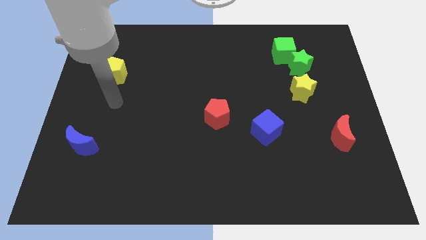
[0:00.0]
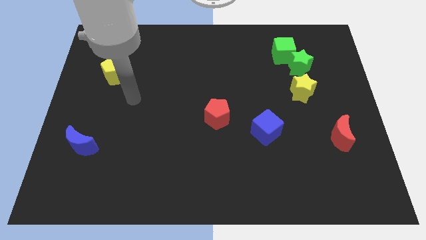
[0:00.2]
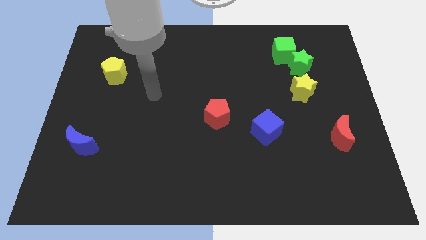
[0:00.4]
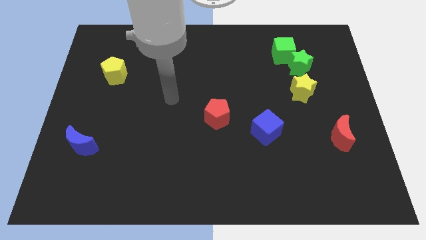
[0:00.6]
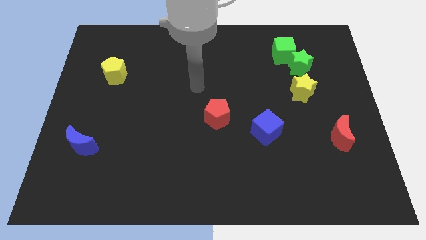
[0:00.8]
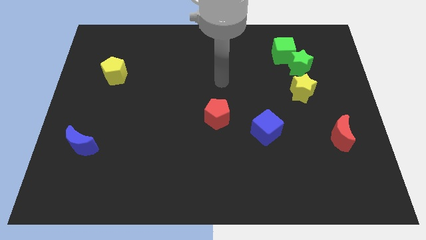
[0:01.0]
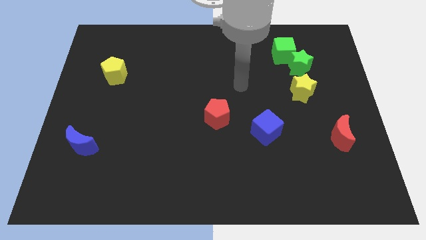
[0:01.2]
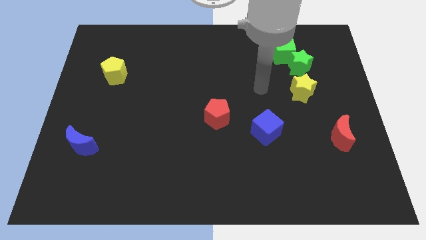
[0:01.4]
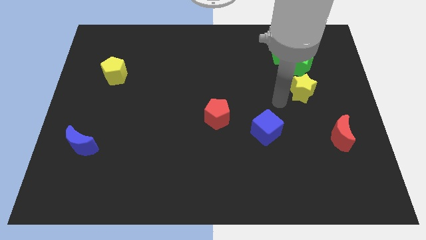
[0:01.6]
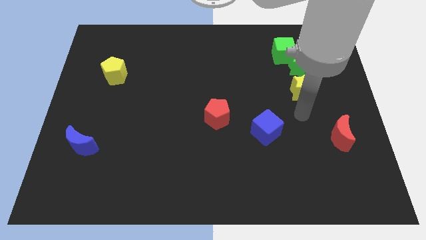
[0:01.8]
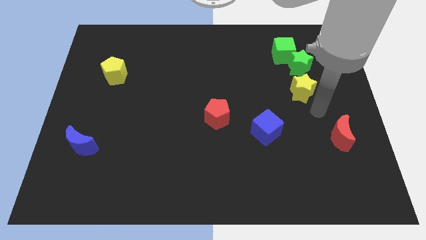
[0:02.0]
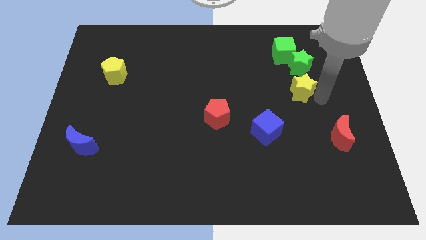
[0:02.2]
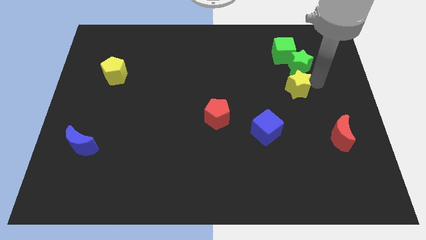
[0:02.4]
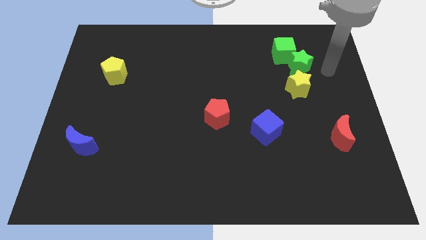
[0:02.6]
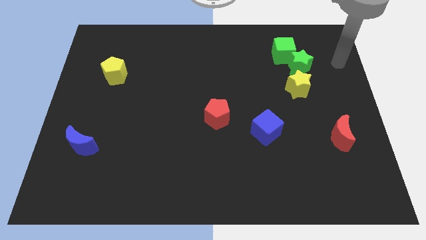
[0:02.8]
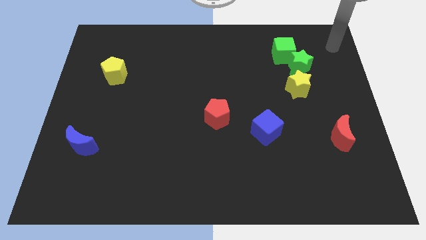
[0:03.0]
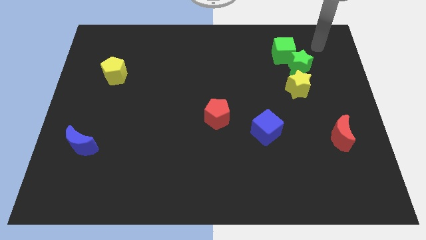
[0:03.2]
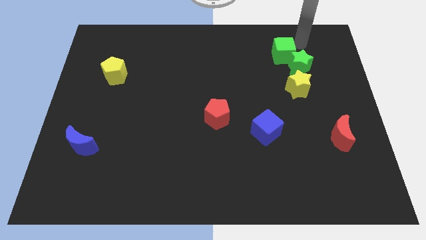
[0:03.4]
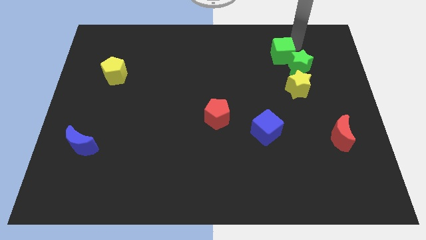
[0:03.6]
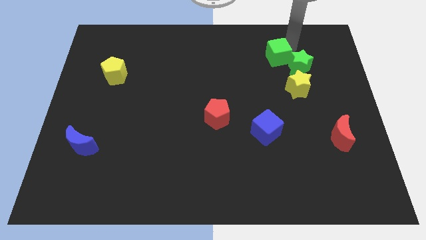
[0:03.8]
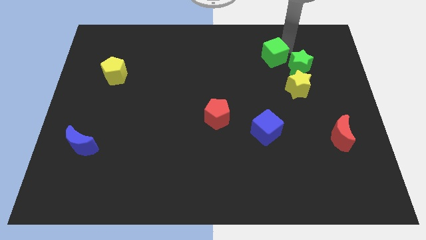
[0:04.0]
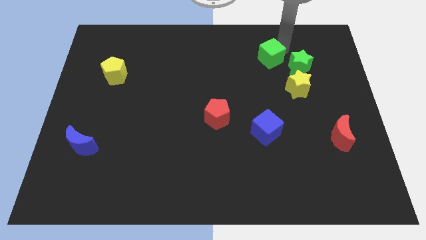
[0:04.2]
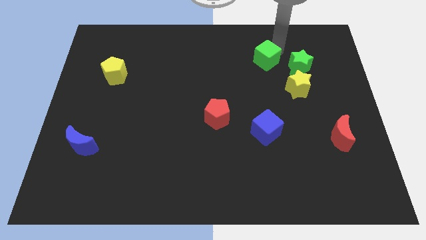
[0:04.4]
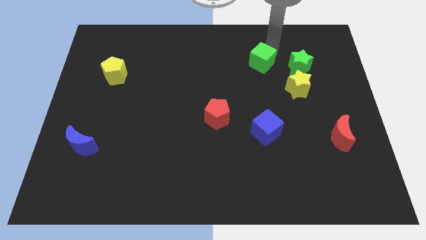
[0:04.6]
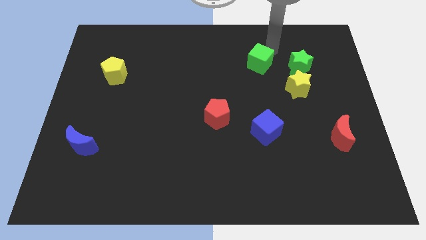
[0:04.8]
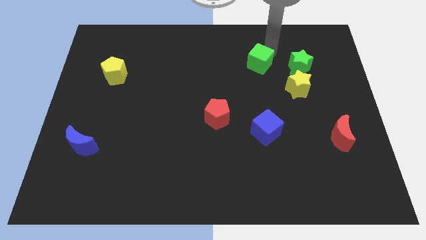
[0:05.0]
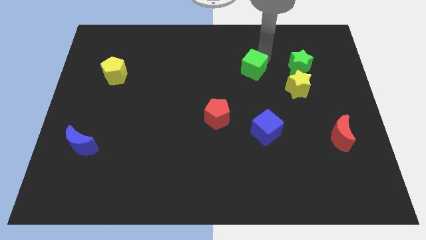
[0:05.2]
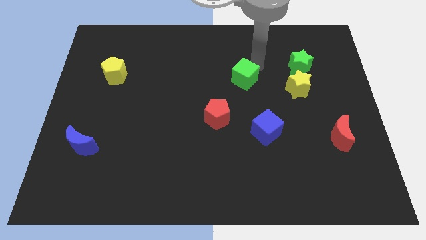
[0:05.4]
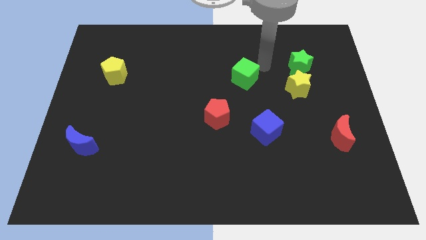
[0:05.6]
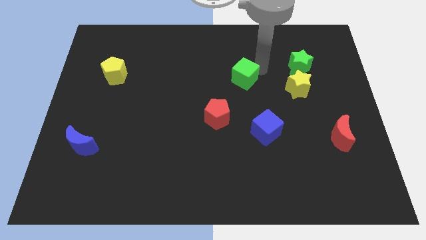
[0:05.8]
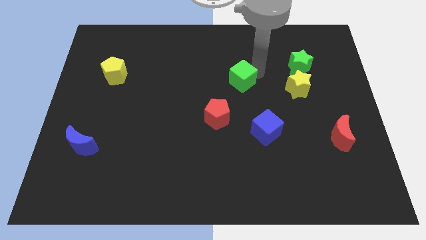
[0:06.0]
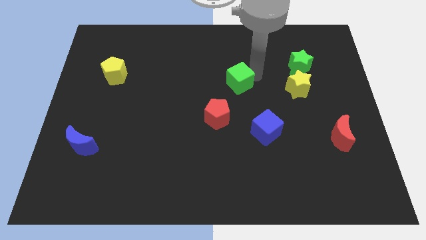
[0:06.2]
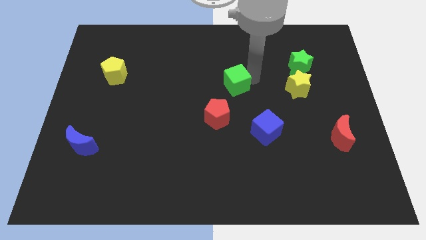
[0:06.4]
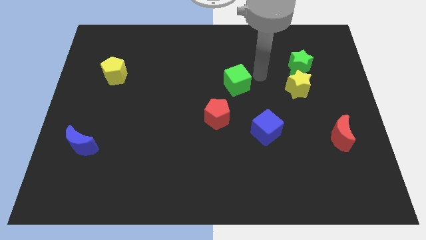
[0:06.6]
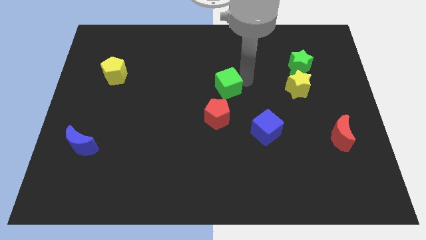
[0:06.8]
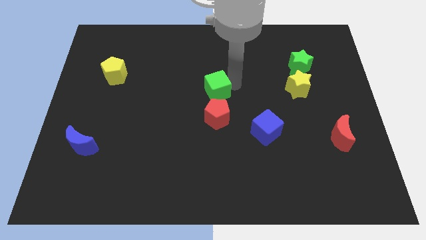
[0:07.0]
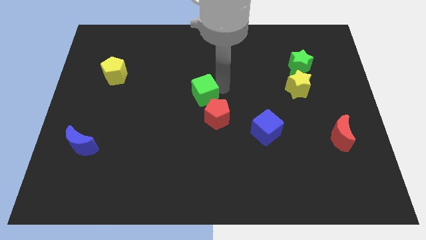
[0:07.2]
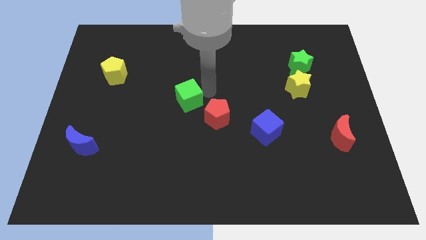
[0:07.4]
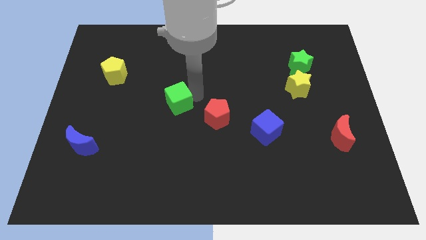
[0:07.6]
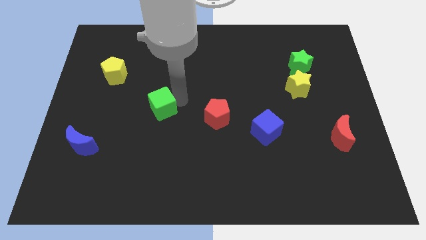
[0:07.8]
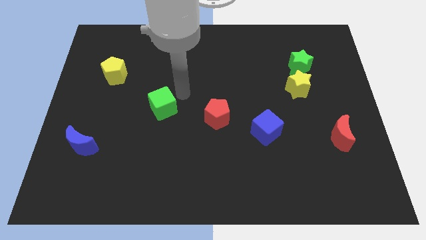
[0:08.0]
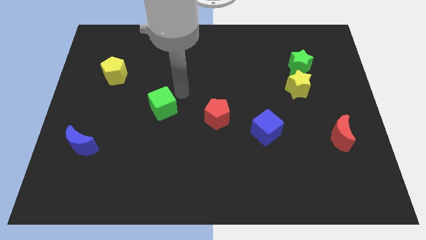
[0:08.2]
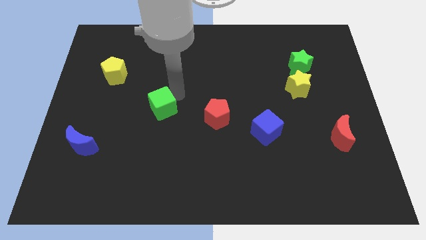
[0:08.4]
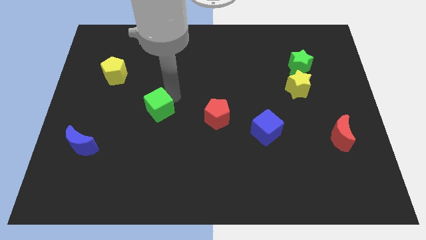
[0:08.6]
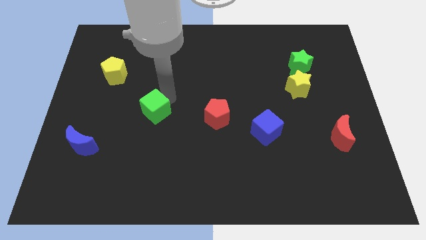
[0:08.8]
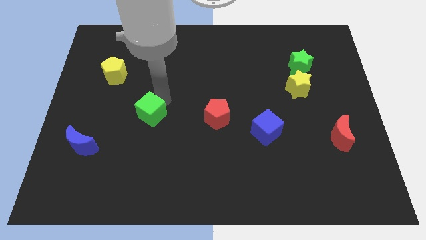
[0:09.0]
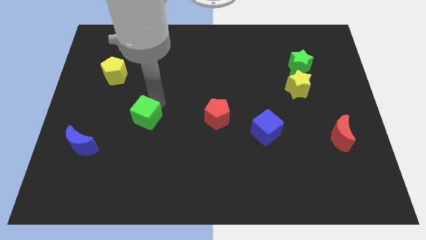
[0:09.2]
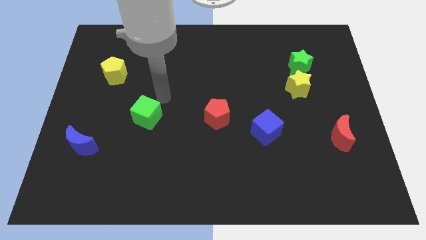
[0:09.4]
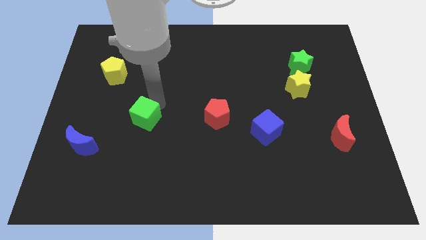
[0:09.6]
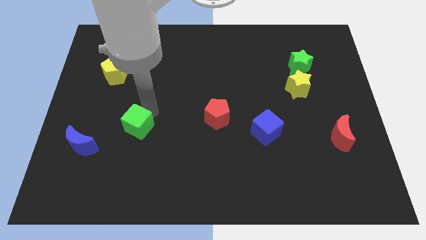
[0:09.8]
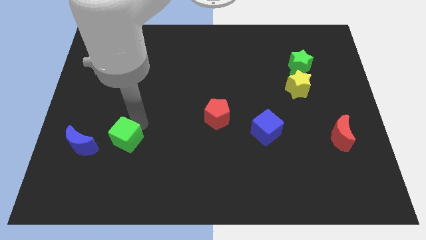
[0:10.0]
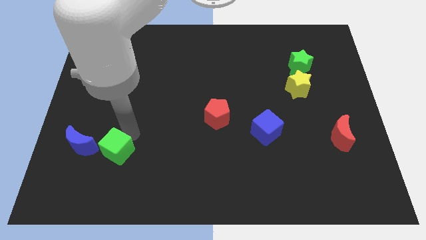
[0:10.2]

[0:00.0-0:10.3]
push the green cube to the bottom right of the blue moon
